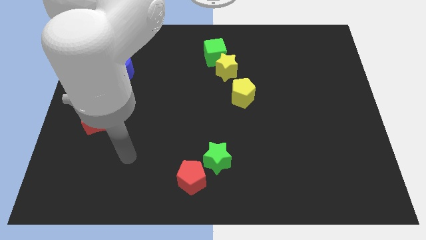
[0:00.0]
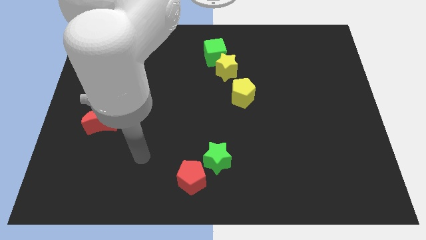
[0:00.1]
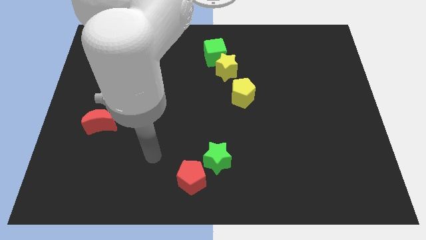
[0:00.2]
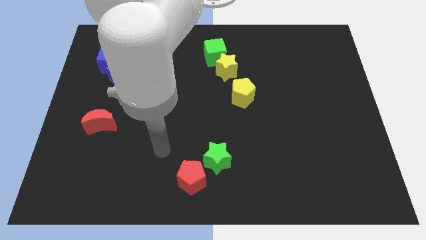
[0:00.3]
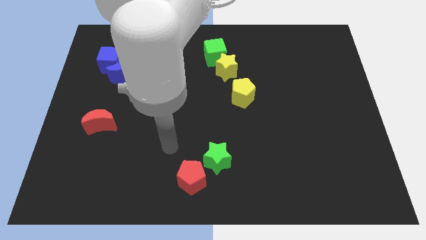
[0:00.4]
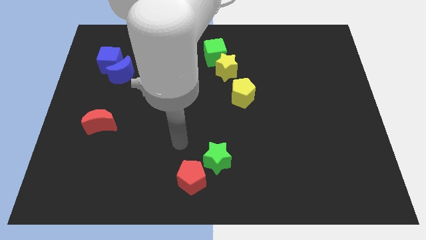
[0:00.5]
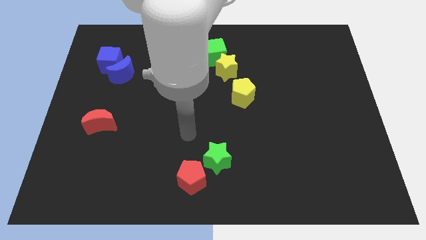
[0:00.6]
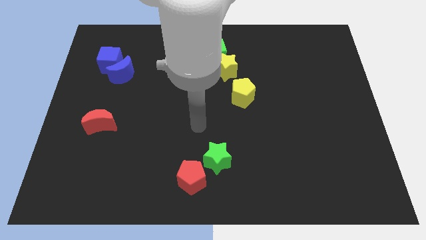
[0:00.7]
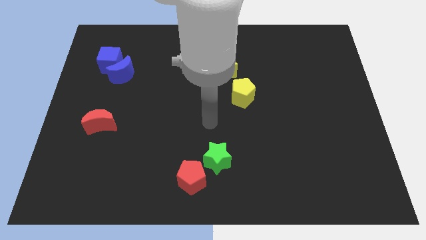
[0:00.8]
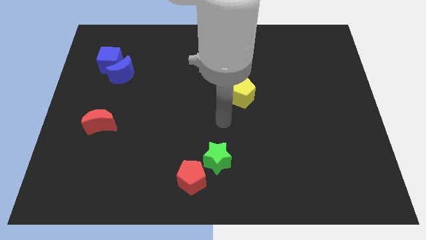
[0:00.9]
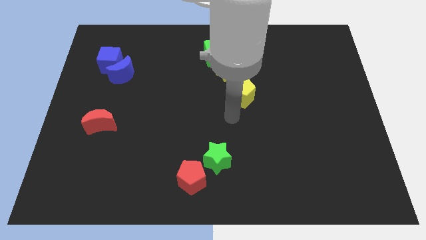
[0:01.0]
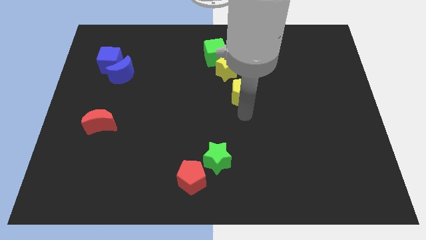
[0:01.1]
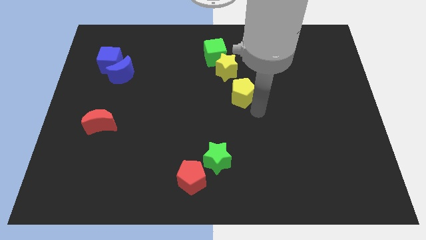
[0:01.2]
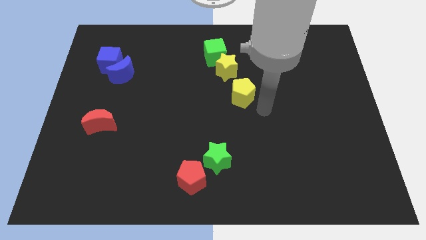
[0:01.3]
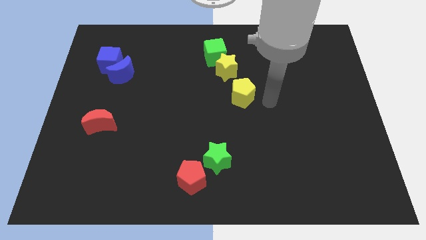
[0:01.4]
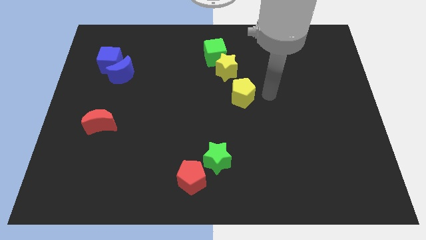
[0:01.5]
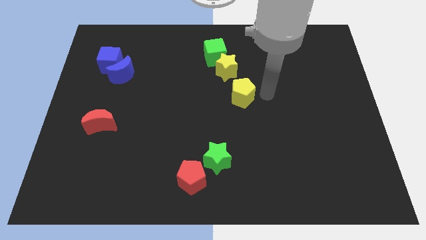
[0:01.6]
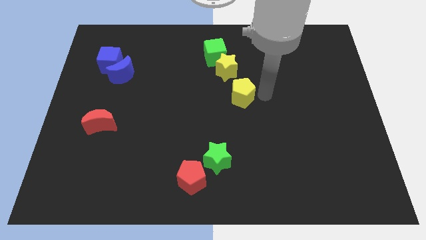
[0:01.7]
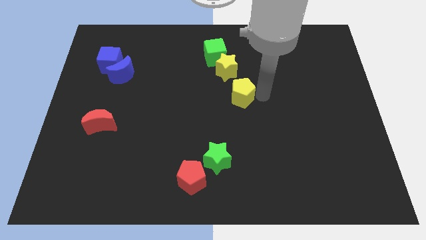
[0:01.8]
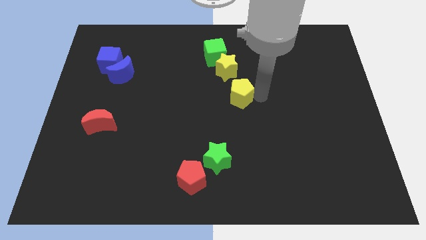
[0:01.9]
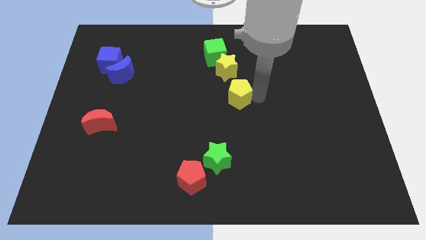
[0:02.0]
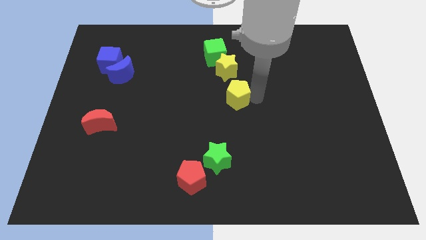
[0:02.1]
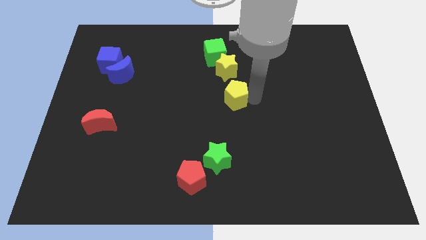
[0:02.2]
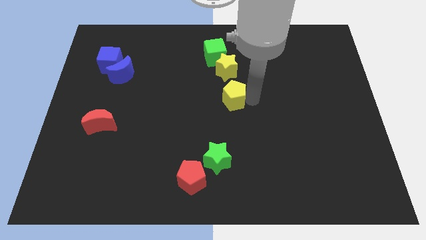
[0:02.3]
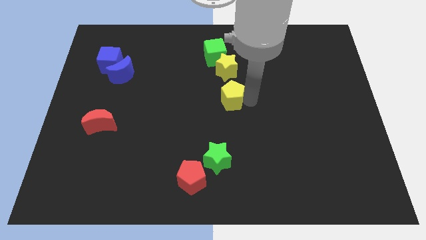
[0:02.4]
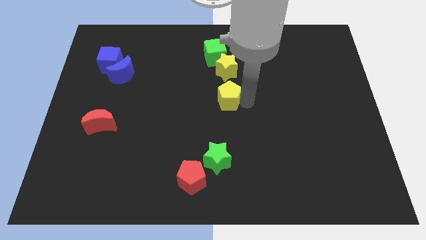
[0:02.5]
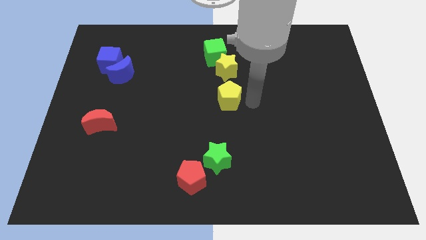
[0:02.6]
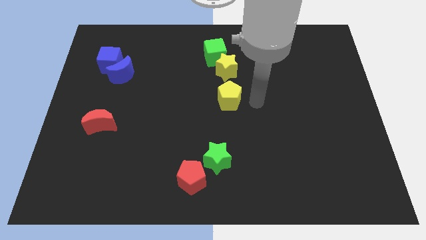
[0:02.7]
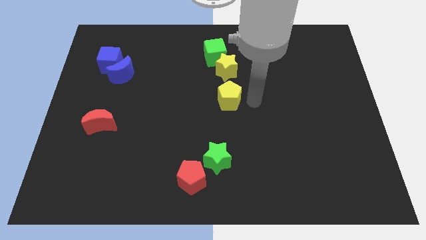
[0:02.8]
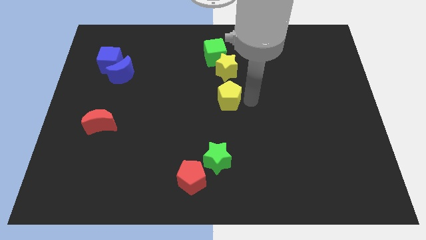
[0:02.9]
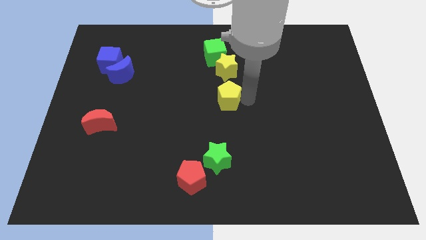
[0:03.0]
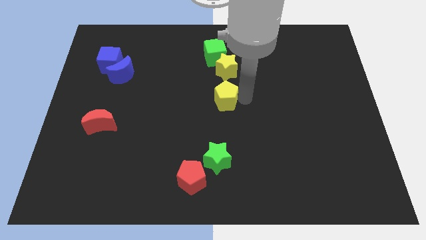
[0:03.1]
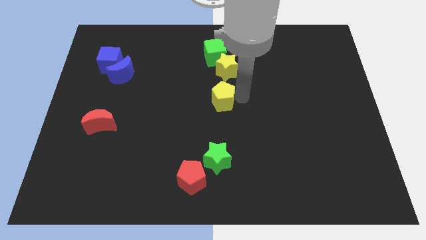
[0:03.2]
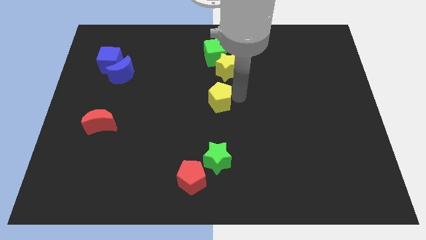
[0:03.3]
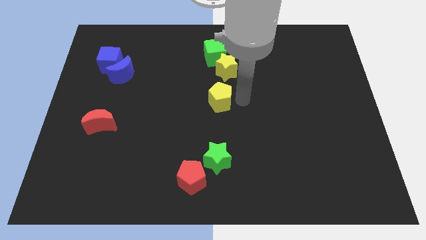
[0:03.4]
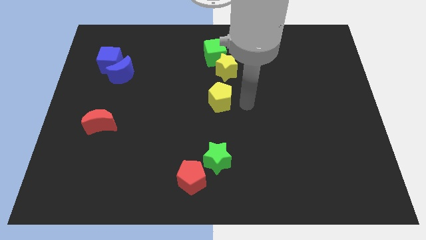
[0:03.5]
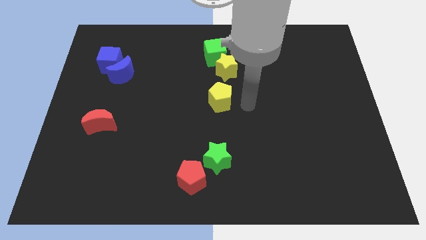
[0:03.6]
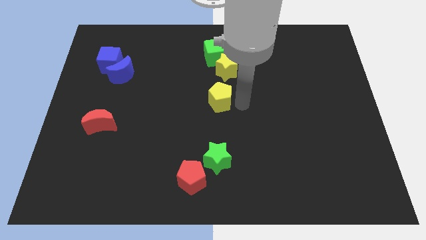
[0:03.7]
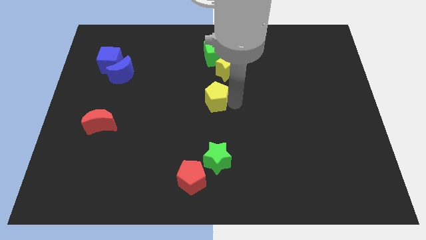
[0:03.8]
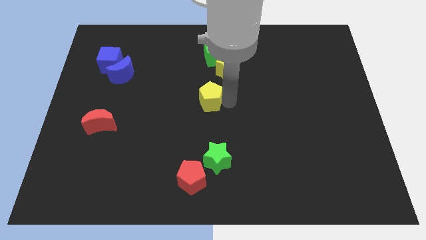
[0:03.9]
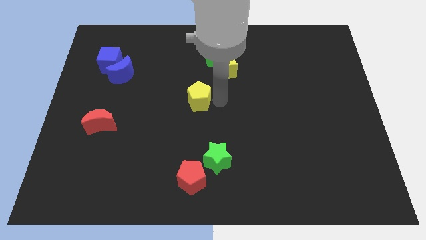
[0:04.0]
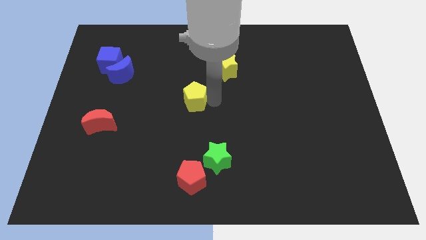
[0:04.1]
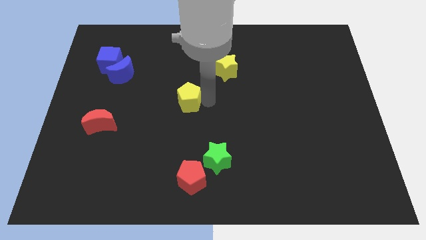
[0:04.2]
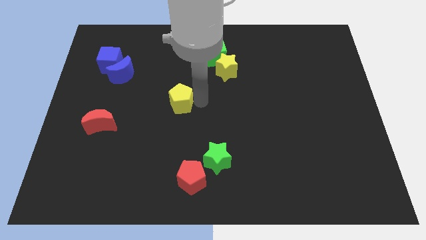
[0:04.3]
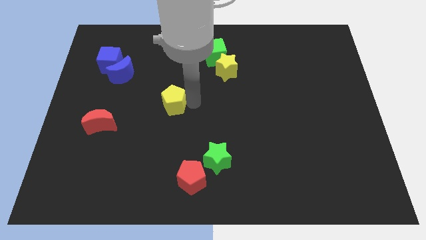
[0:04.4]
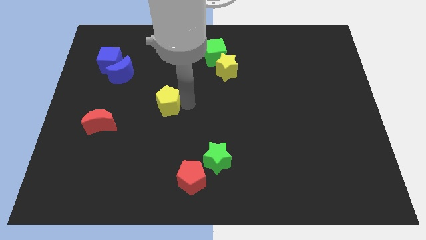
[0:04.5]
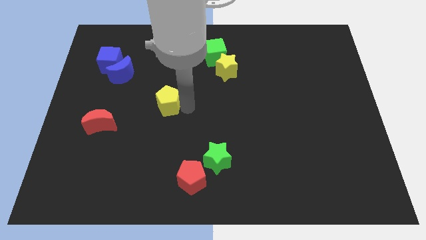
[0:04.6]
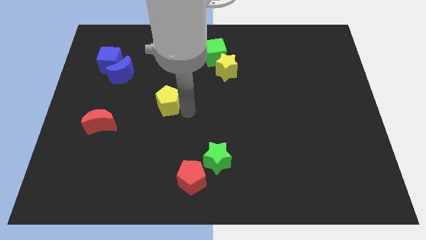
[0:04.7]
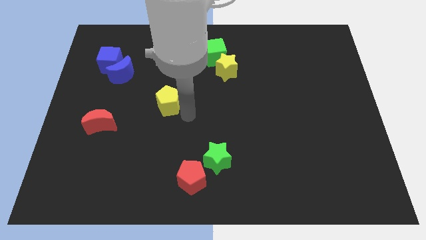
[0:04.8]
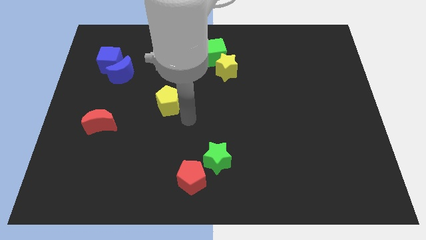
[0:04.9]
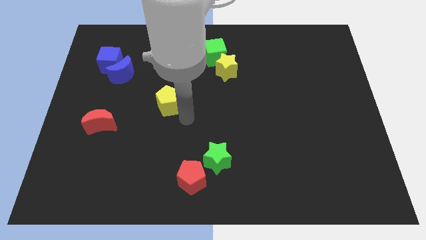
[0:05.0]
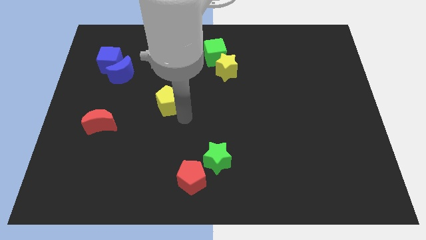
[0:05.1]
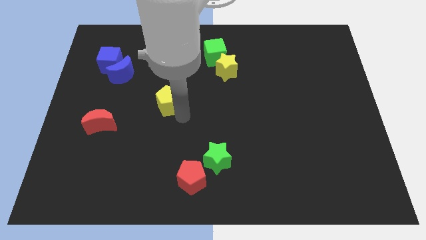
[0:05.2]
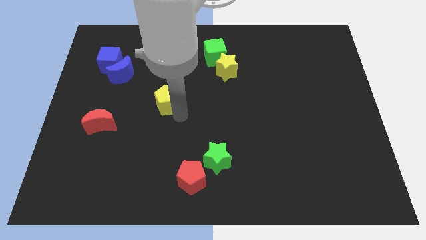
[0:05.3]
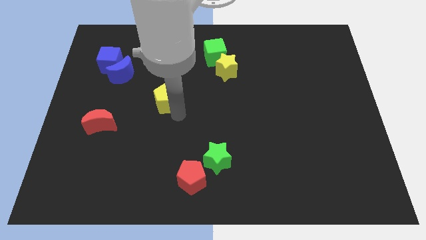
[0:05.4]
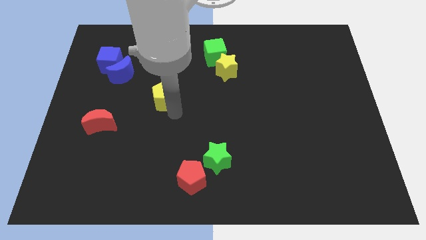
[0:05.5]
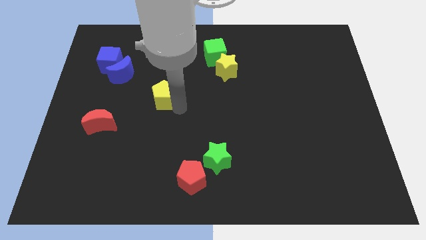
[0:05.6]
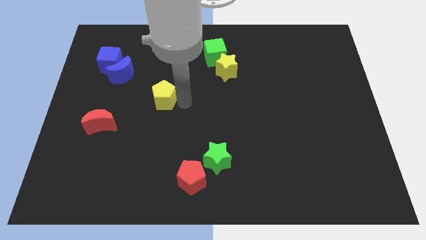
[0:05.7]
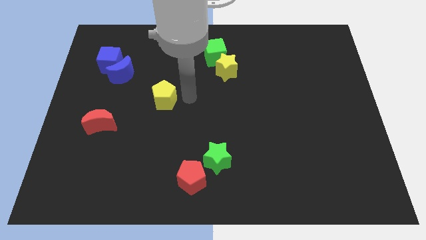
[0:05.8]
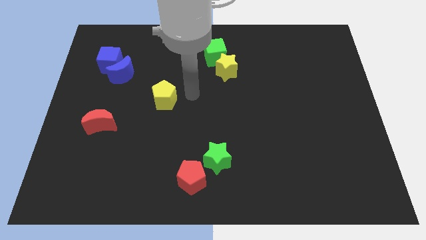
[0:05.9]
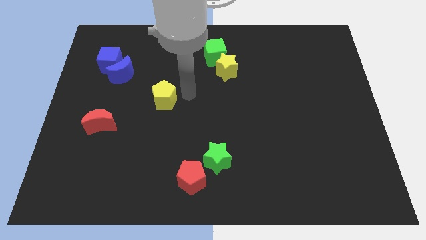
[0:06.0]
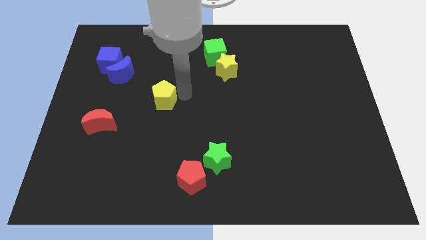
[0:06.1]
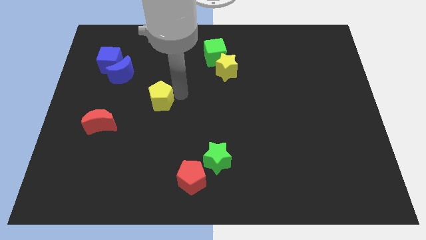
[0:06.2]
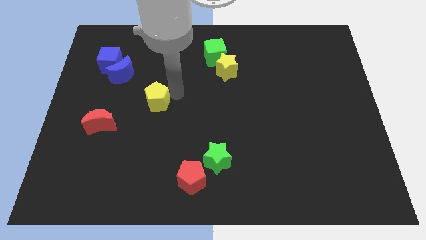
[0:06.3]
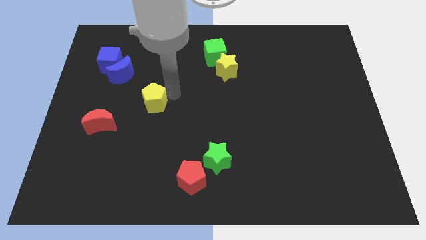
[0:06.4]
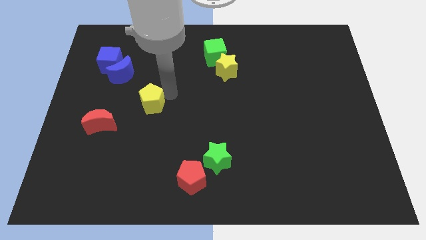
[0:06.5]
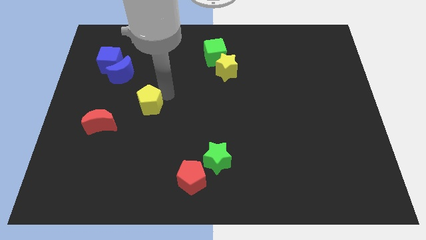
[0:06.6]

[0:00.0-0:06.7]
push the yellow pentagon to the top right of the red moon

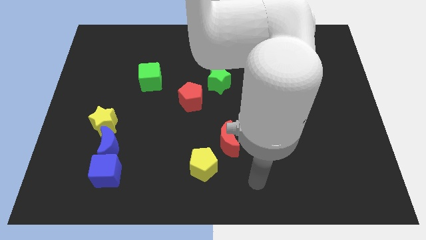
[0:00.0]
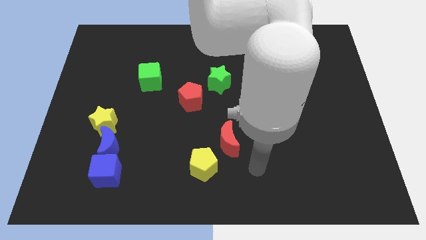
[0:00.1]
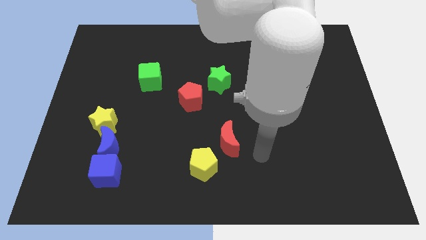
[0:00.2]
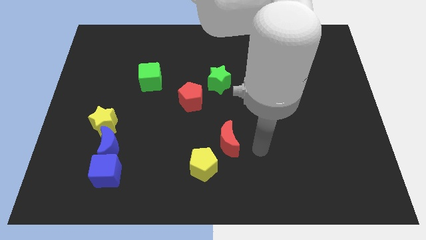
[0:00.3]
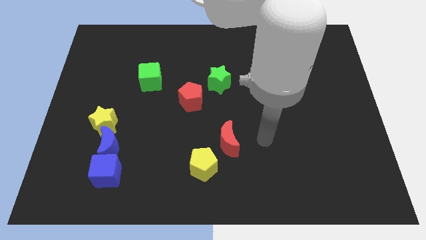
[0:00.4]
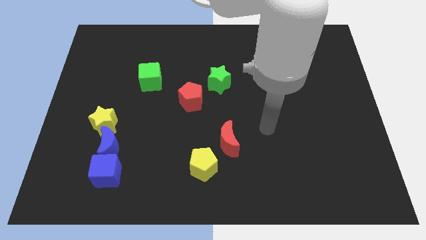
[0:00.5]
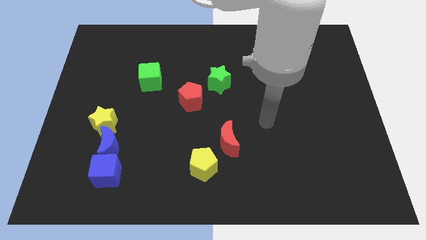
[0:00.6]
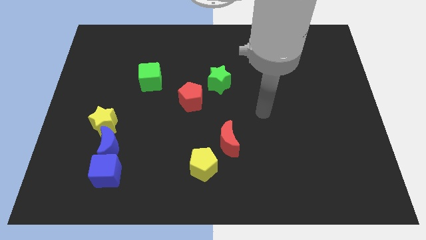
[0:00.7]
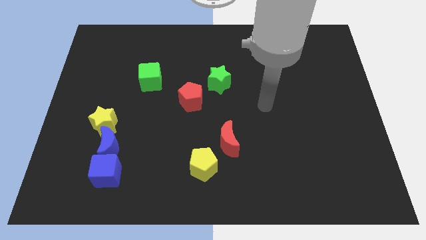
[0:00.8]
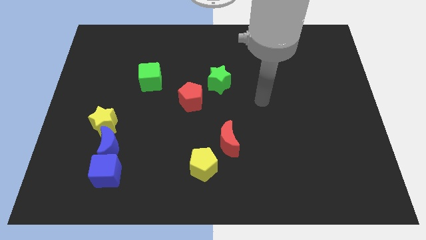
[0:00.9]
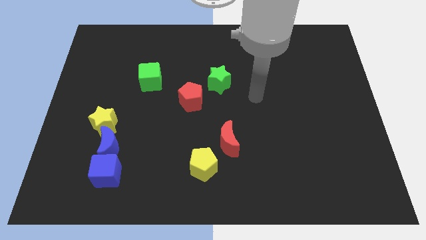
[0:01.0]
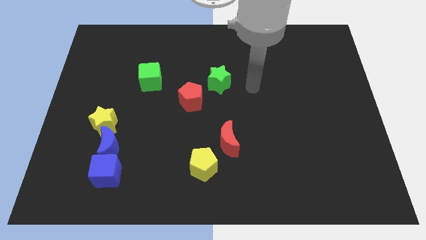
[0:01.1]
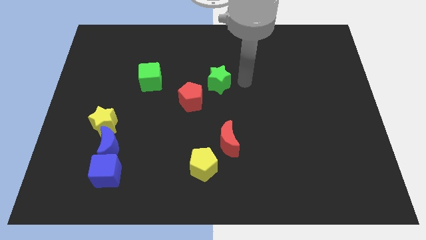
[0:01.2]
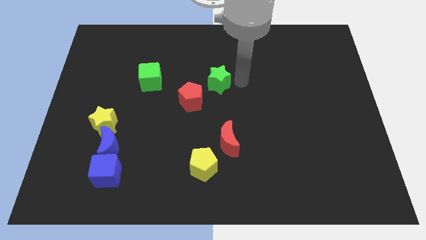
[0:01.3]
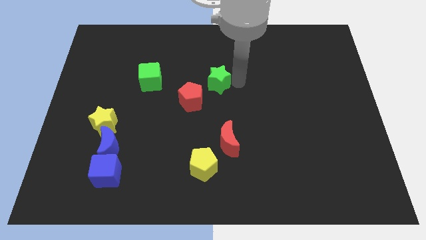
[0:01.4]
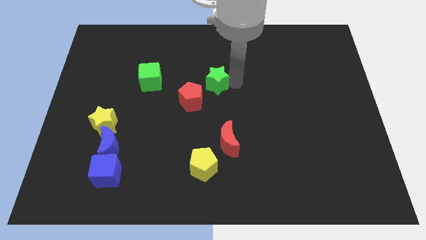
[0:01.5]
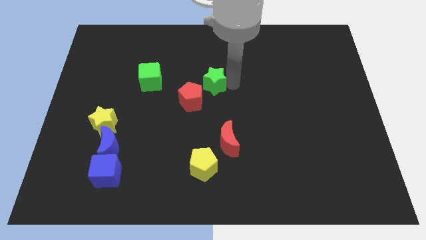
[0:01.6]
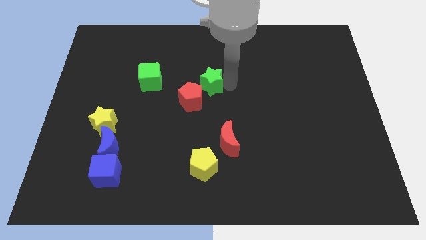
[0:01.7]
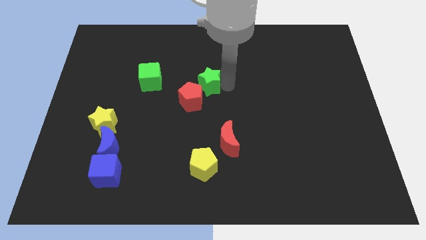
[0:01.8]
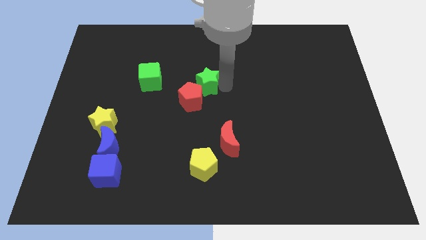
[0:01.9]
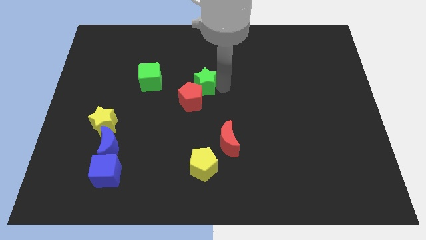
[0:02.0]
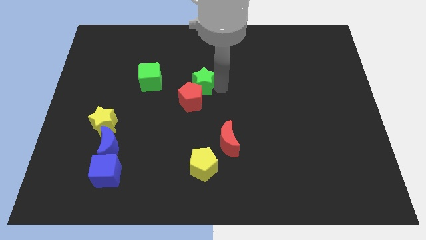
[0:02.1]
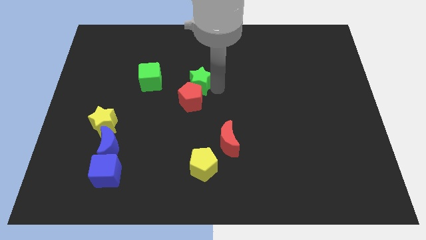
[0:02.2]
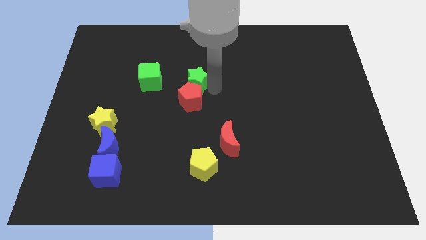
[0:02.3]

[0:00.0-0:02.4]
push the green star diagonally up and to the left of the red pentagon
